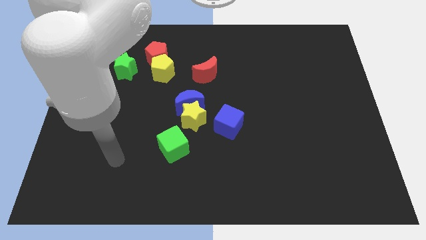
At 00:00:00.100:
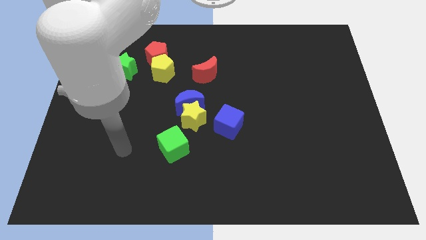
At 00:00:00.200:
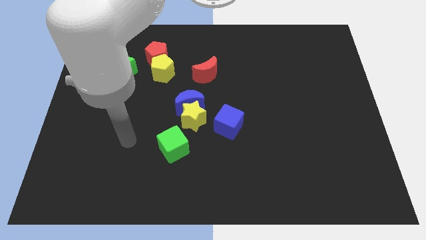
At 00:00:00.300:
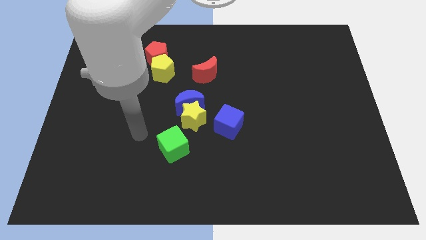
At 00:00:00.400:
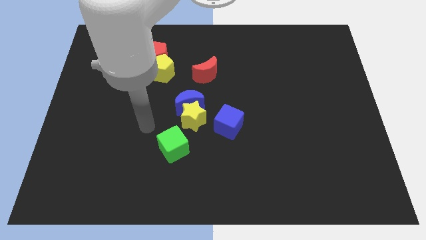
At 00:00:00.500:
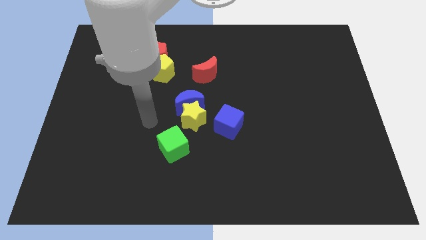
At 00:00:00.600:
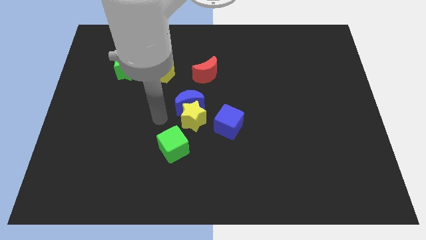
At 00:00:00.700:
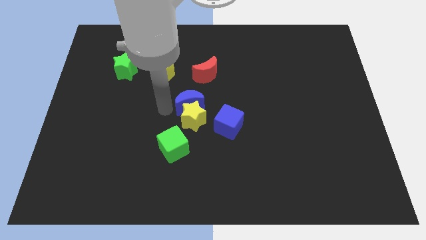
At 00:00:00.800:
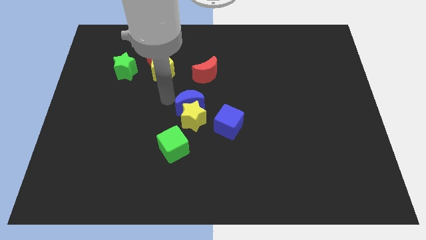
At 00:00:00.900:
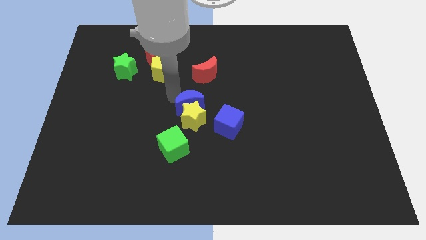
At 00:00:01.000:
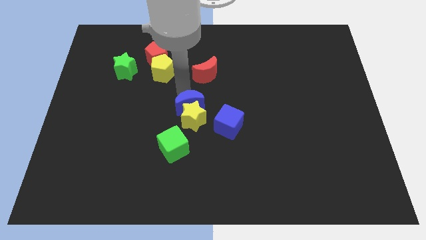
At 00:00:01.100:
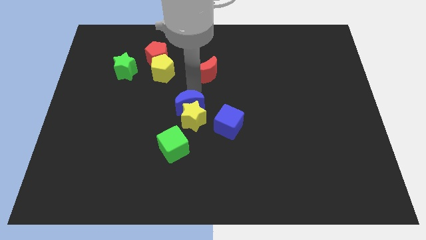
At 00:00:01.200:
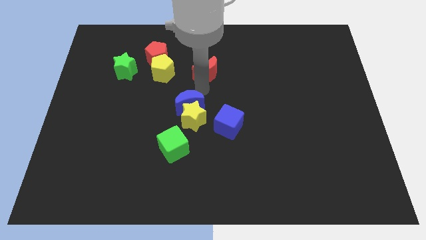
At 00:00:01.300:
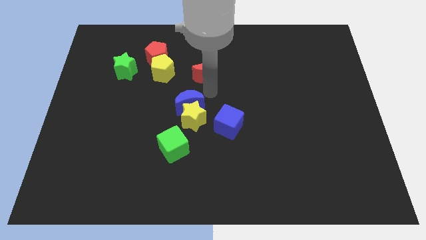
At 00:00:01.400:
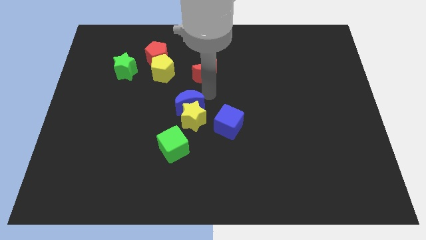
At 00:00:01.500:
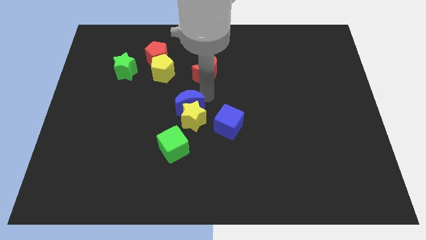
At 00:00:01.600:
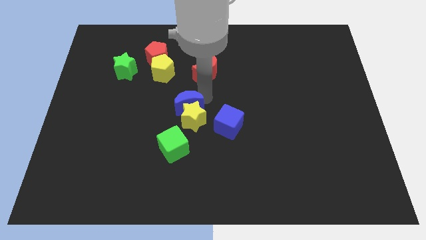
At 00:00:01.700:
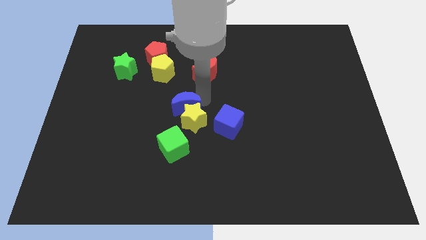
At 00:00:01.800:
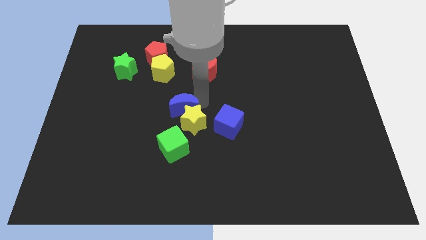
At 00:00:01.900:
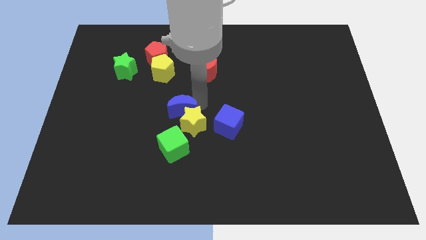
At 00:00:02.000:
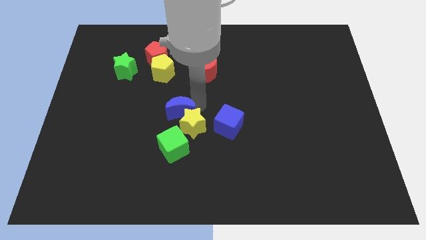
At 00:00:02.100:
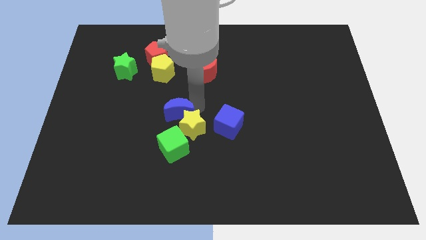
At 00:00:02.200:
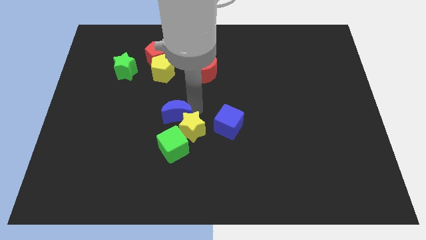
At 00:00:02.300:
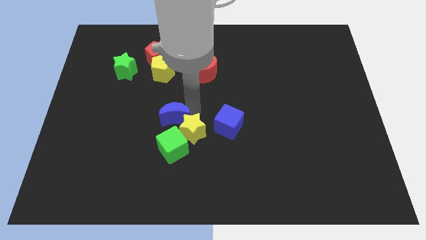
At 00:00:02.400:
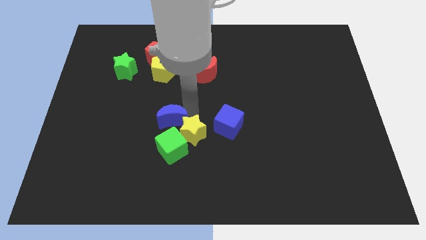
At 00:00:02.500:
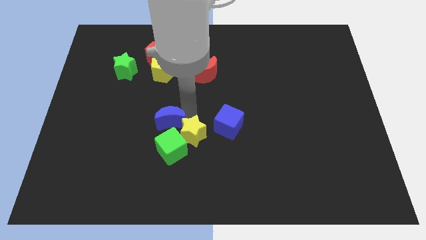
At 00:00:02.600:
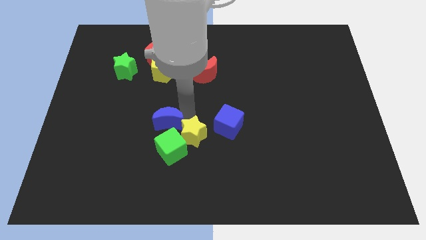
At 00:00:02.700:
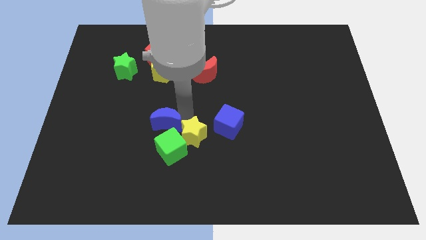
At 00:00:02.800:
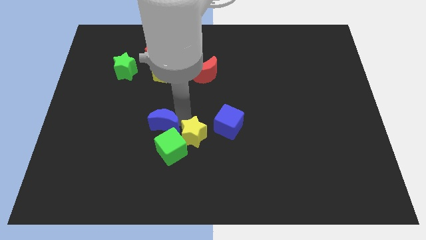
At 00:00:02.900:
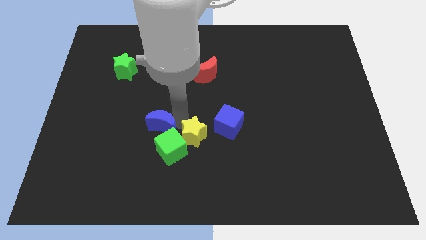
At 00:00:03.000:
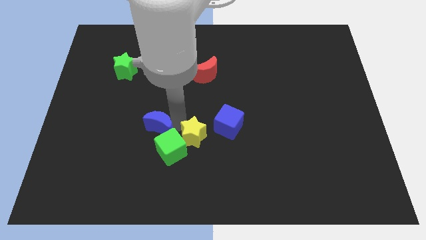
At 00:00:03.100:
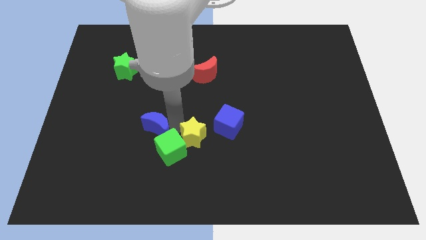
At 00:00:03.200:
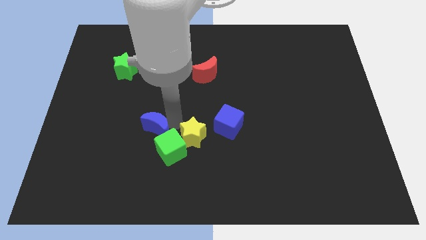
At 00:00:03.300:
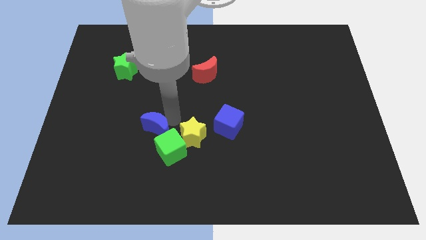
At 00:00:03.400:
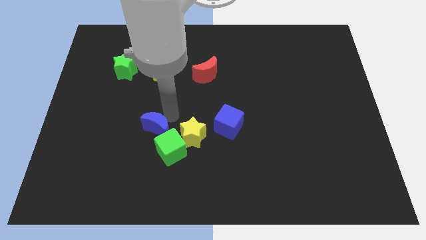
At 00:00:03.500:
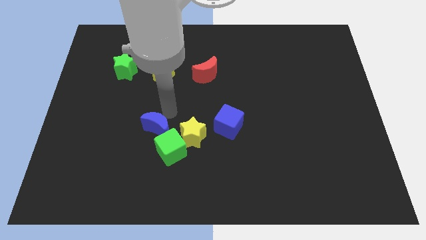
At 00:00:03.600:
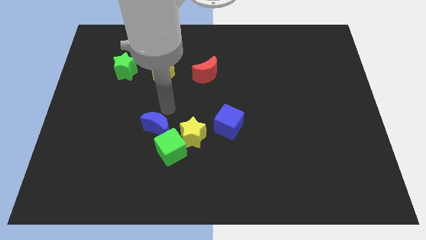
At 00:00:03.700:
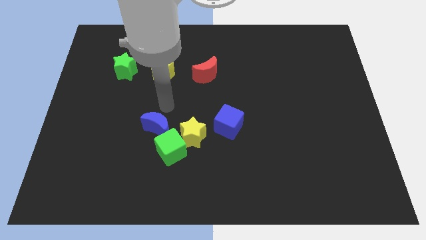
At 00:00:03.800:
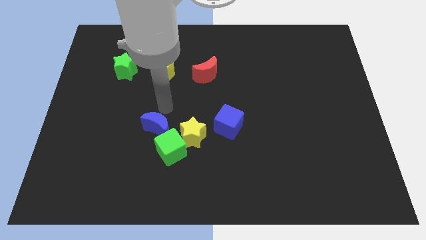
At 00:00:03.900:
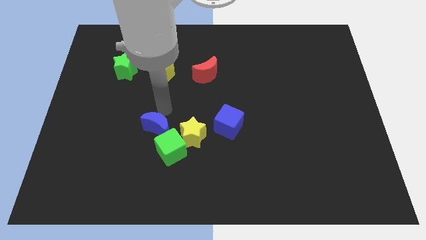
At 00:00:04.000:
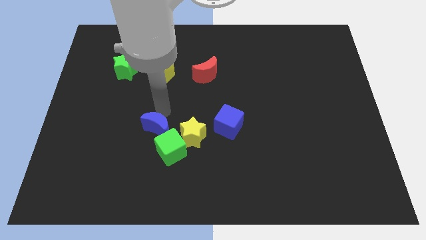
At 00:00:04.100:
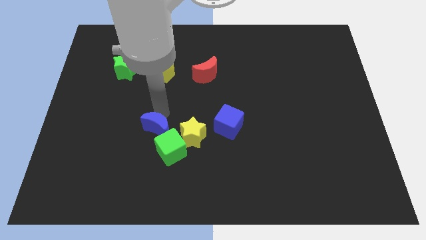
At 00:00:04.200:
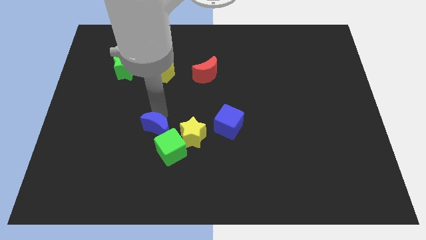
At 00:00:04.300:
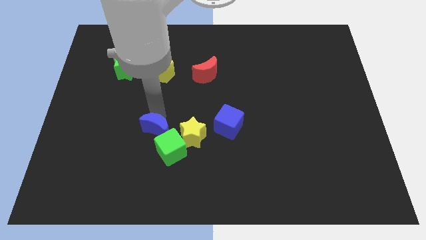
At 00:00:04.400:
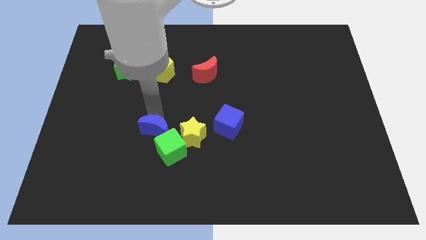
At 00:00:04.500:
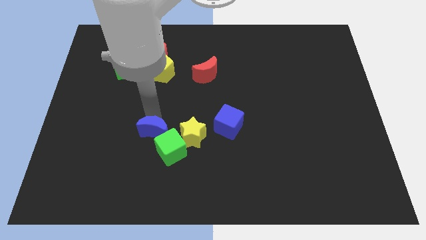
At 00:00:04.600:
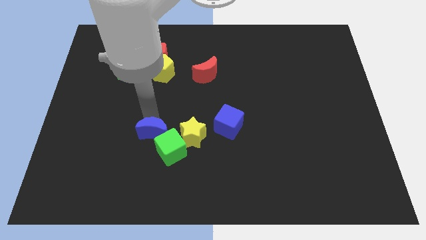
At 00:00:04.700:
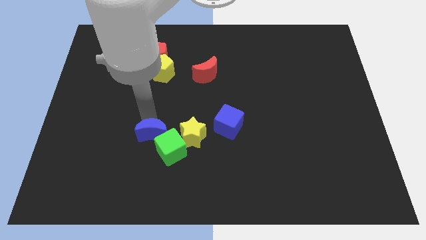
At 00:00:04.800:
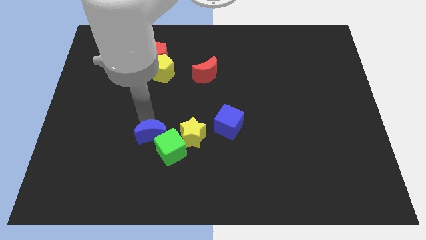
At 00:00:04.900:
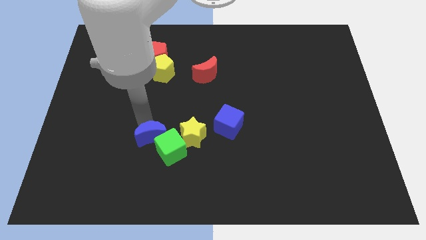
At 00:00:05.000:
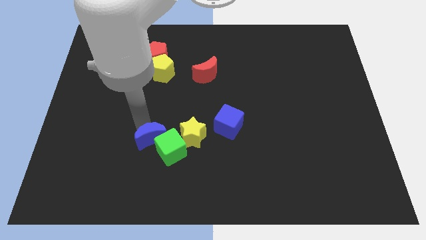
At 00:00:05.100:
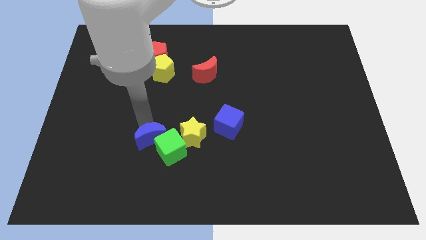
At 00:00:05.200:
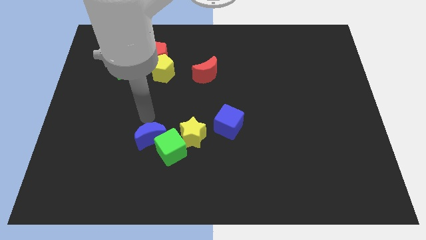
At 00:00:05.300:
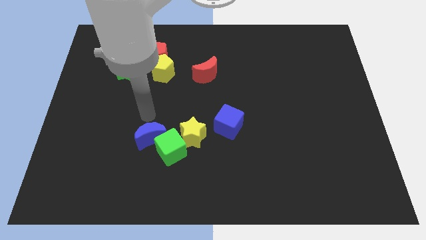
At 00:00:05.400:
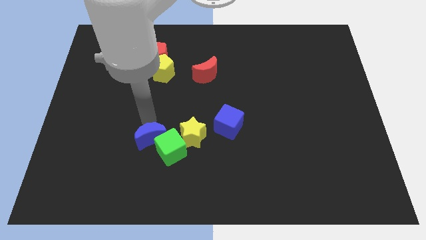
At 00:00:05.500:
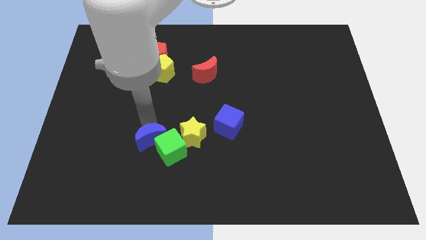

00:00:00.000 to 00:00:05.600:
slightly push the blue moon down

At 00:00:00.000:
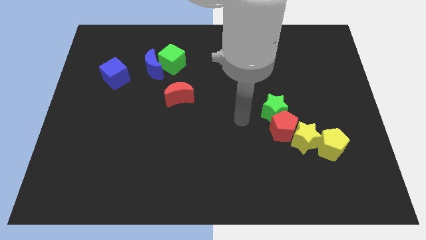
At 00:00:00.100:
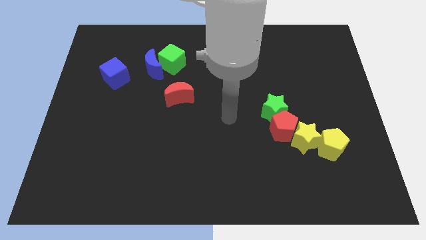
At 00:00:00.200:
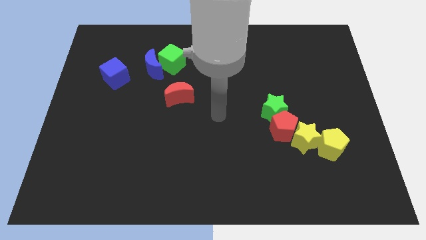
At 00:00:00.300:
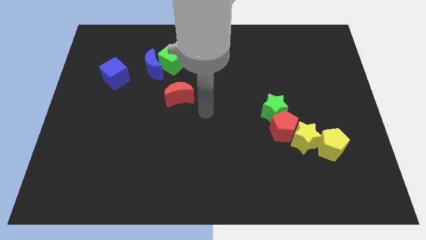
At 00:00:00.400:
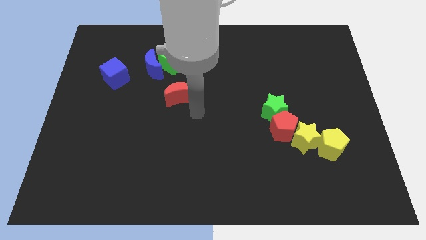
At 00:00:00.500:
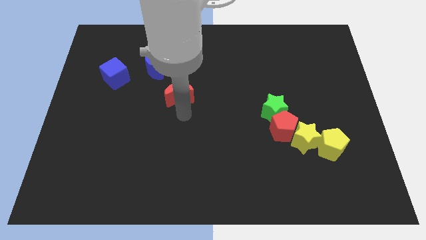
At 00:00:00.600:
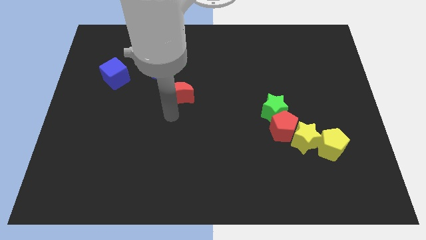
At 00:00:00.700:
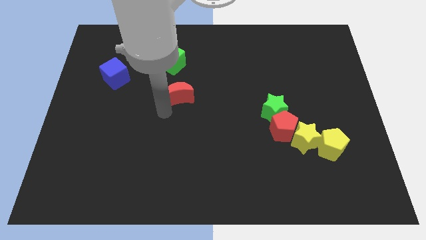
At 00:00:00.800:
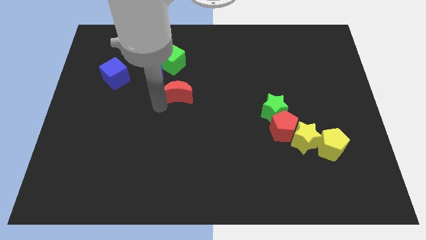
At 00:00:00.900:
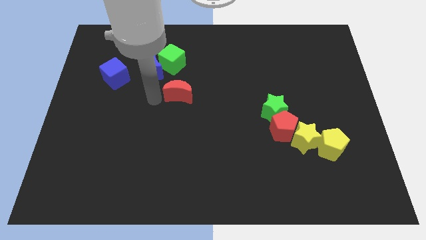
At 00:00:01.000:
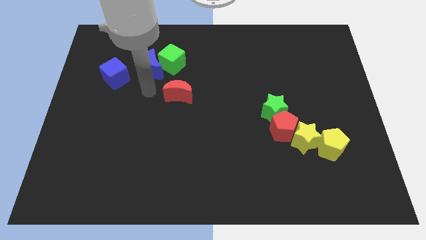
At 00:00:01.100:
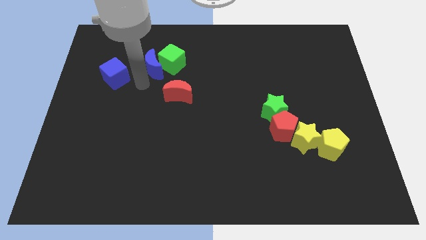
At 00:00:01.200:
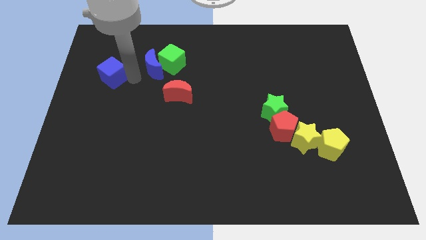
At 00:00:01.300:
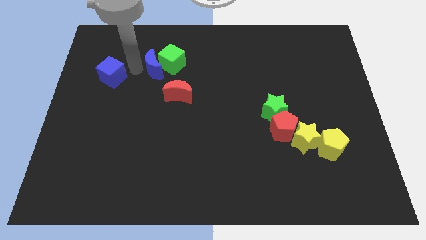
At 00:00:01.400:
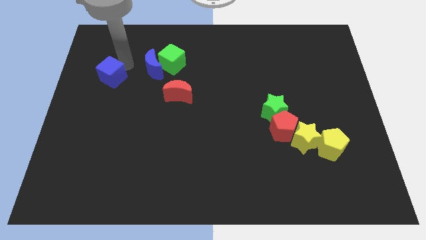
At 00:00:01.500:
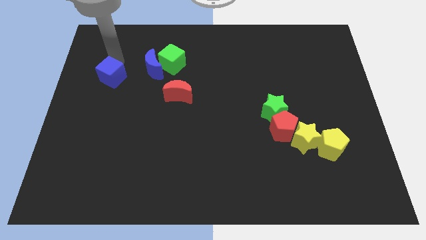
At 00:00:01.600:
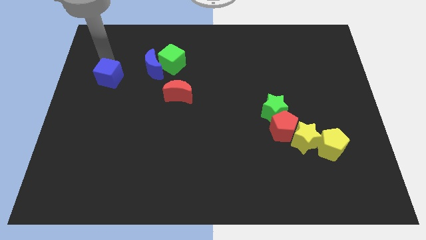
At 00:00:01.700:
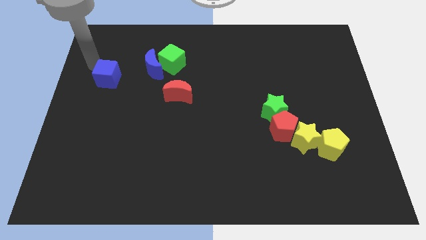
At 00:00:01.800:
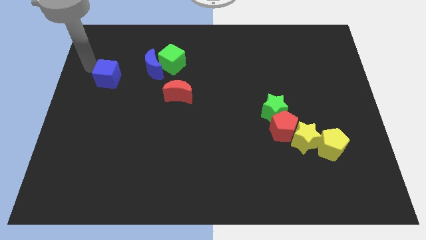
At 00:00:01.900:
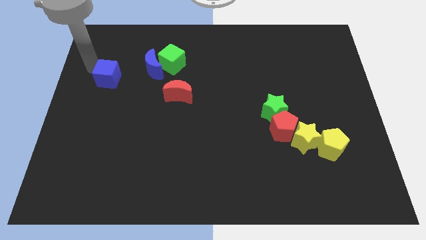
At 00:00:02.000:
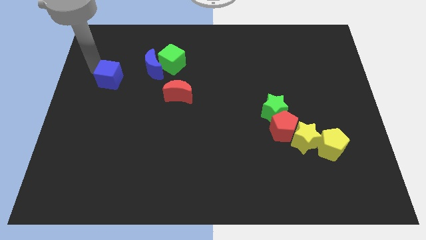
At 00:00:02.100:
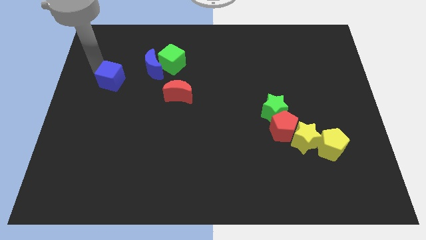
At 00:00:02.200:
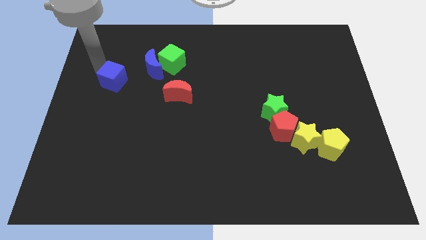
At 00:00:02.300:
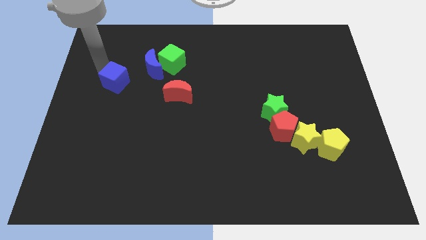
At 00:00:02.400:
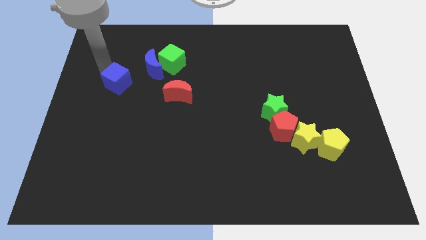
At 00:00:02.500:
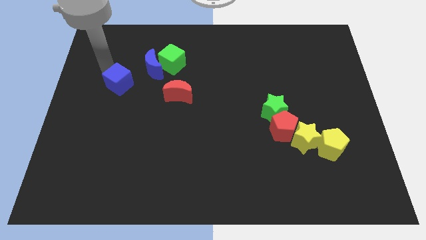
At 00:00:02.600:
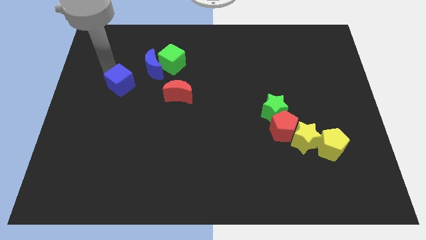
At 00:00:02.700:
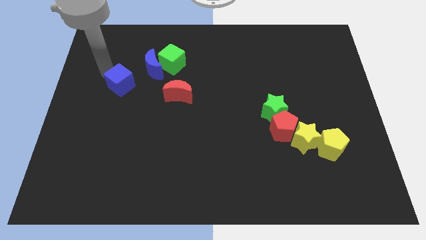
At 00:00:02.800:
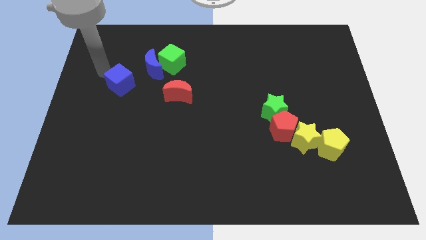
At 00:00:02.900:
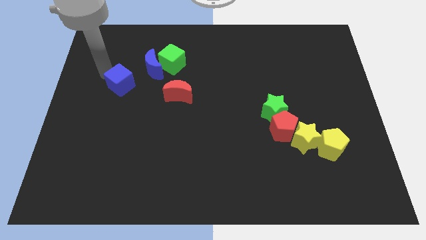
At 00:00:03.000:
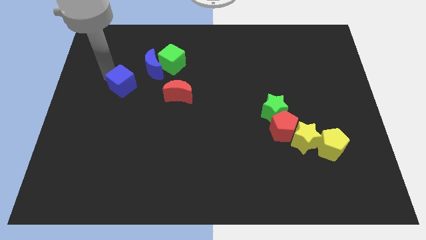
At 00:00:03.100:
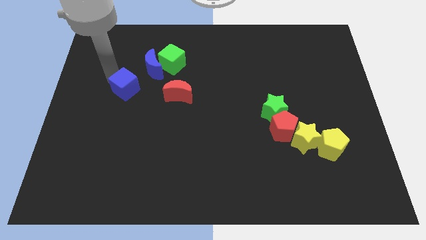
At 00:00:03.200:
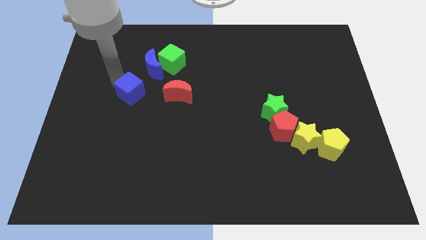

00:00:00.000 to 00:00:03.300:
slightly move the blue cube down and to the right diagonally
